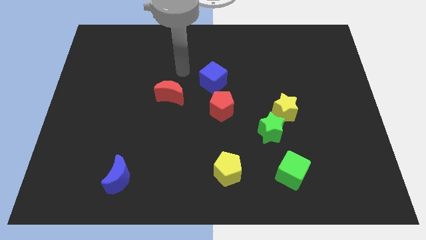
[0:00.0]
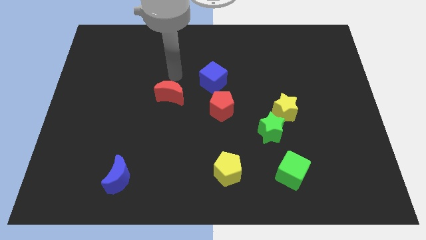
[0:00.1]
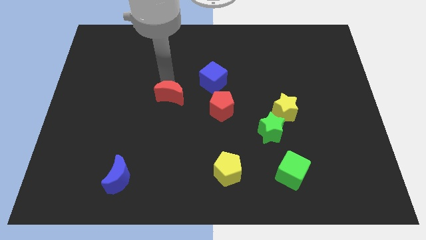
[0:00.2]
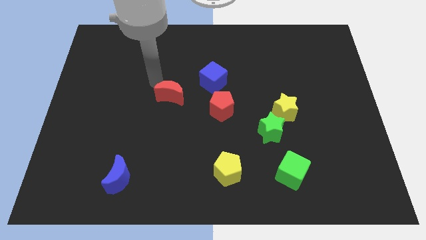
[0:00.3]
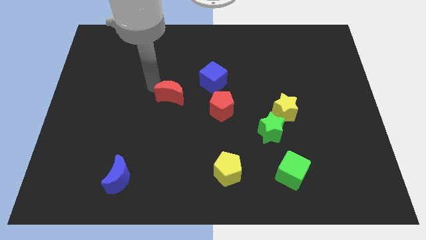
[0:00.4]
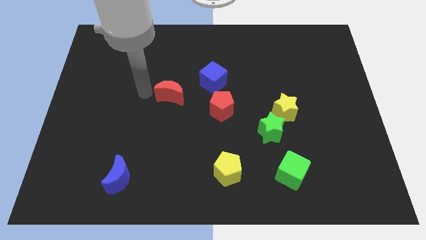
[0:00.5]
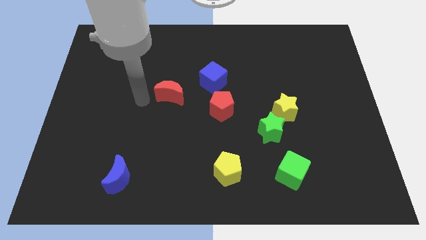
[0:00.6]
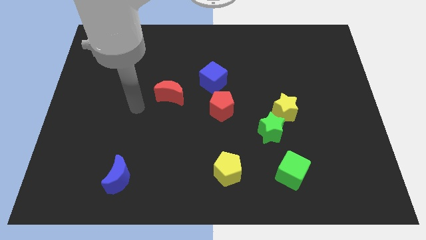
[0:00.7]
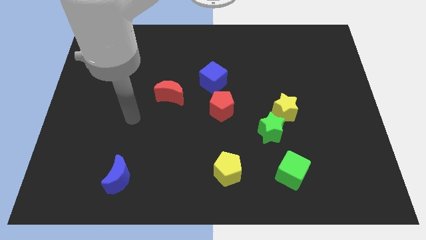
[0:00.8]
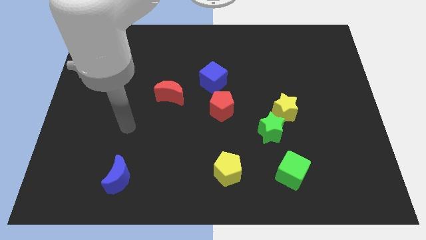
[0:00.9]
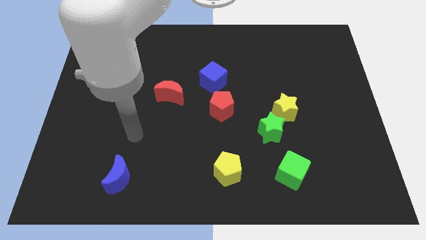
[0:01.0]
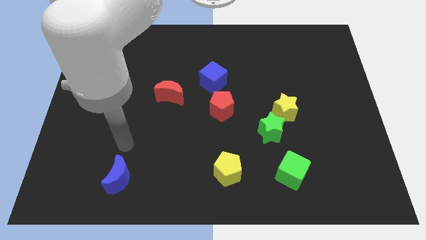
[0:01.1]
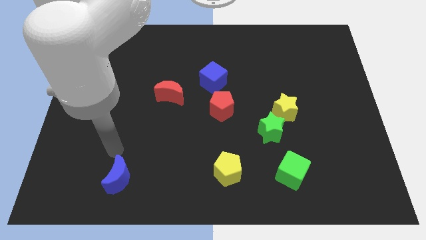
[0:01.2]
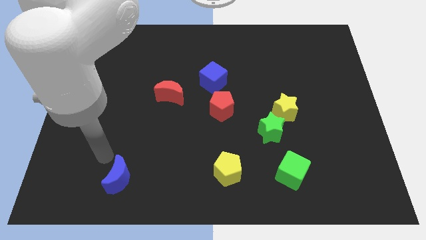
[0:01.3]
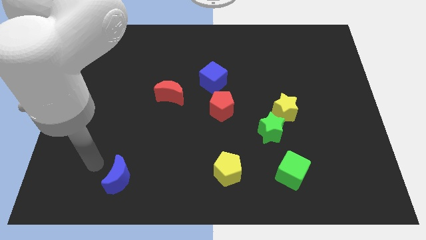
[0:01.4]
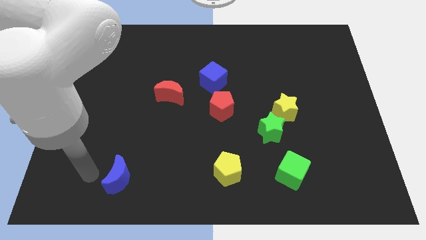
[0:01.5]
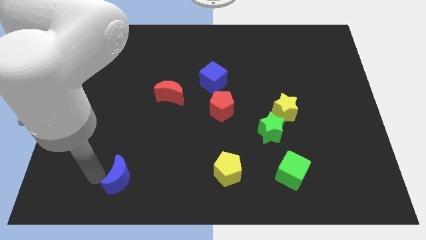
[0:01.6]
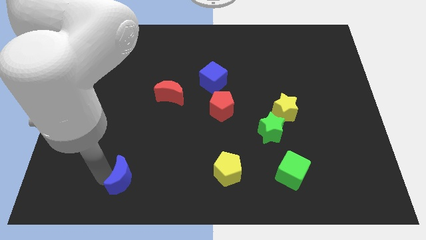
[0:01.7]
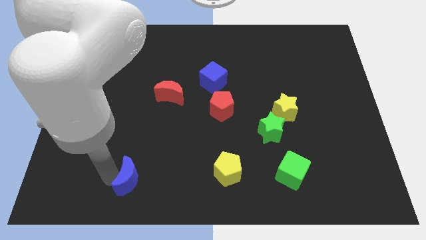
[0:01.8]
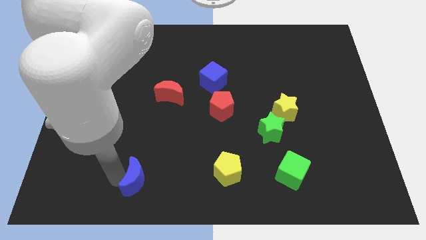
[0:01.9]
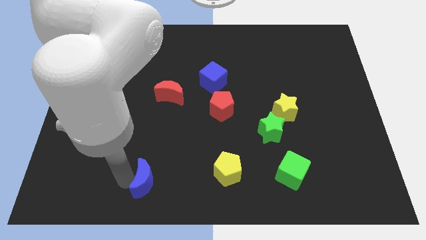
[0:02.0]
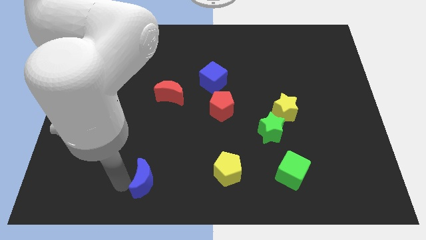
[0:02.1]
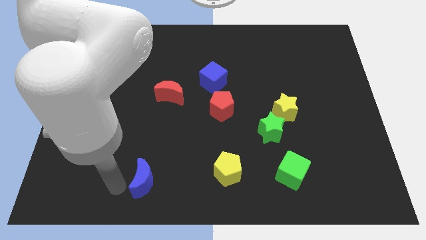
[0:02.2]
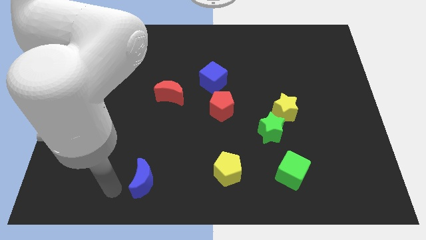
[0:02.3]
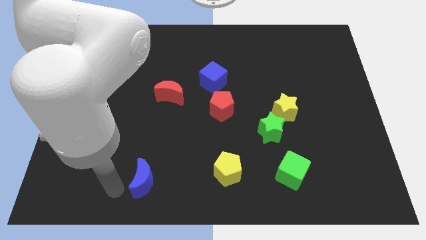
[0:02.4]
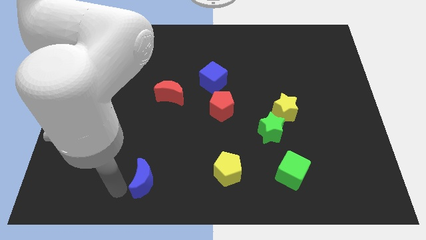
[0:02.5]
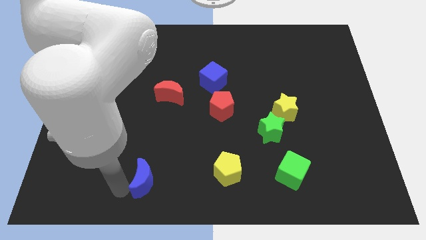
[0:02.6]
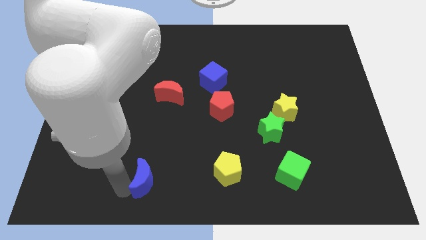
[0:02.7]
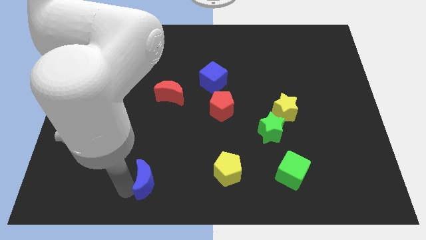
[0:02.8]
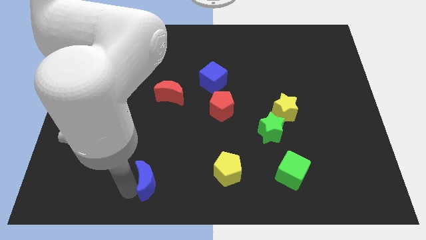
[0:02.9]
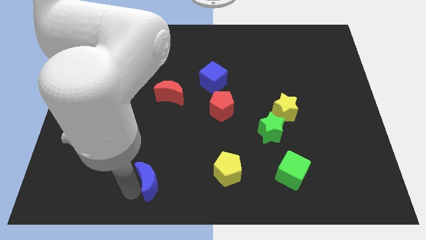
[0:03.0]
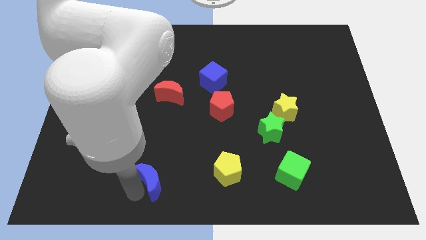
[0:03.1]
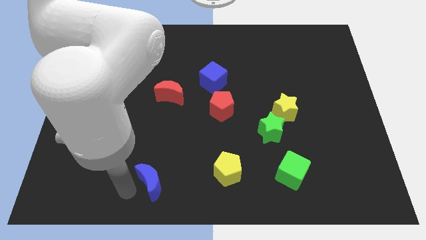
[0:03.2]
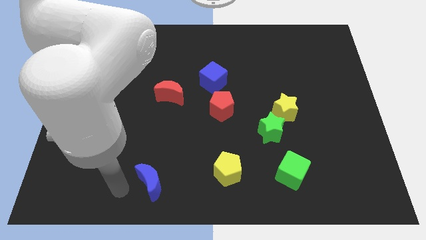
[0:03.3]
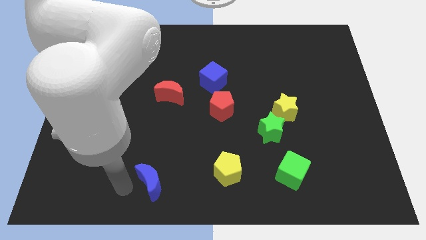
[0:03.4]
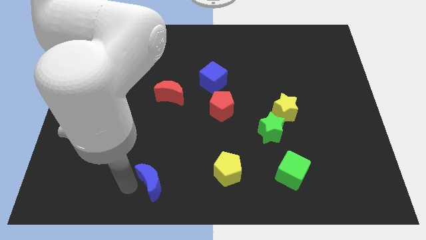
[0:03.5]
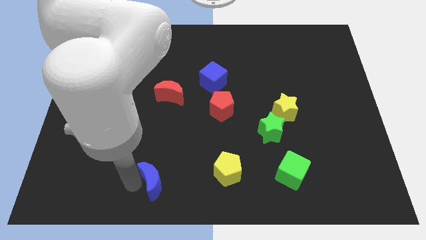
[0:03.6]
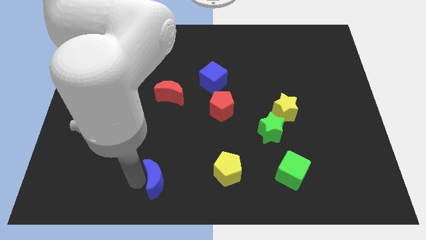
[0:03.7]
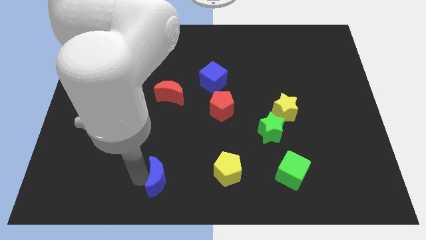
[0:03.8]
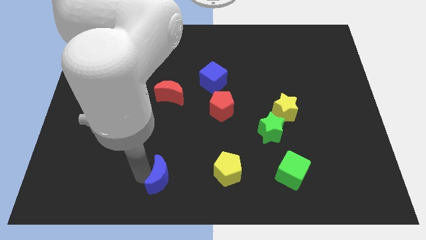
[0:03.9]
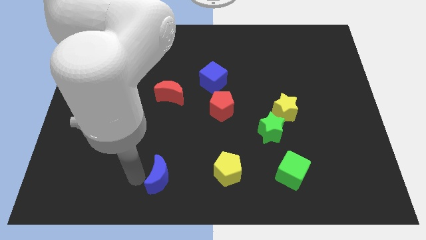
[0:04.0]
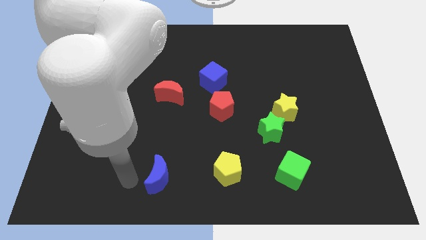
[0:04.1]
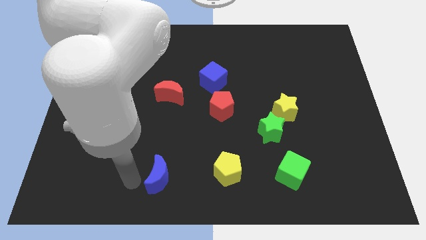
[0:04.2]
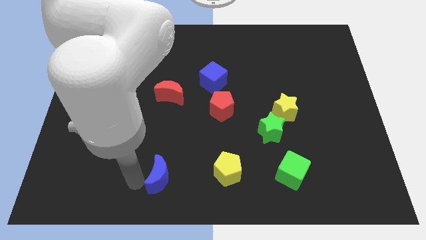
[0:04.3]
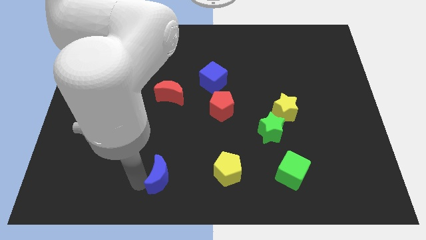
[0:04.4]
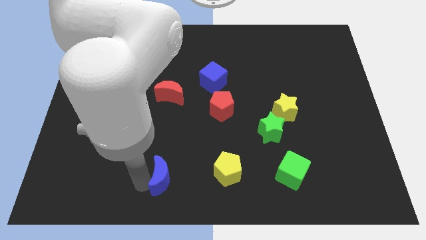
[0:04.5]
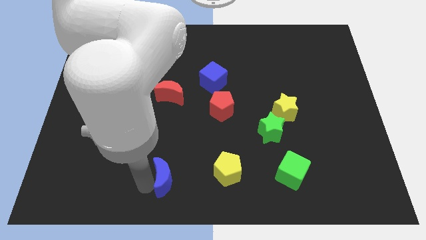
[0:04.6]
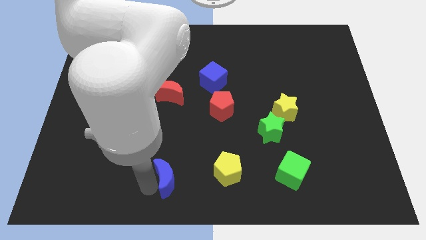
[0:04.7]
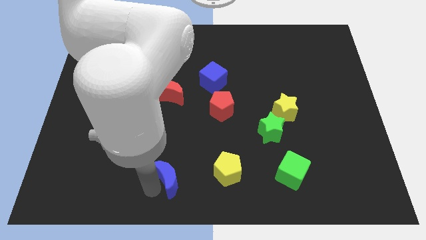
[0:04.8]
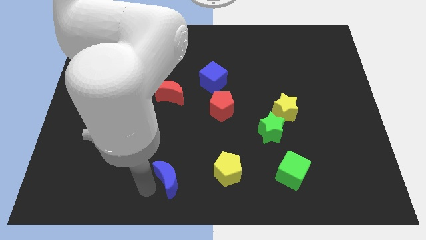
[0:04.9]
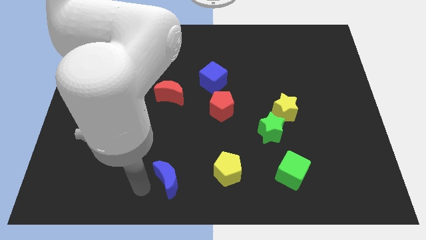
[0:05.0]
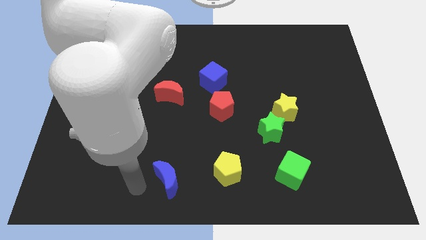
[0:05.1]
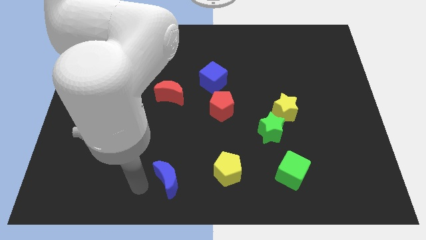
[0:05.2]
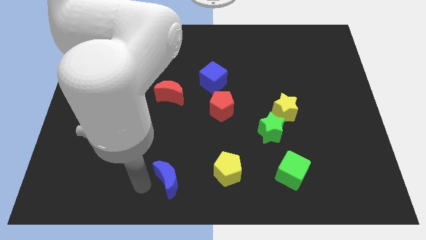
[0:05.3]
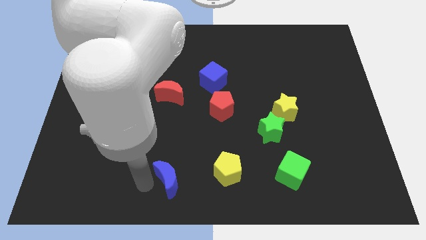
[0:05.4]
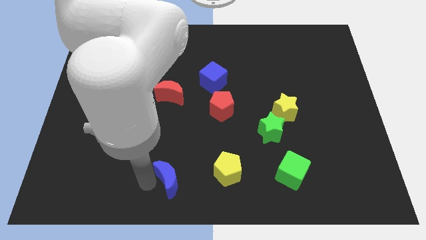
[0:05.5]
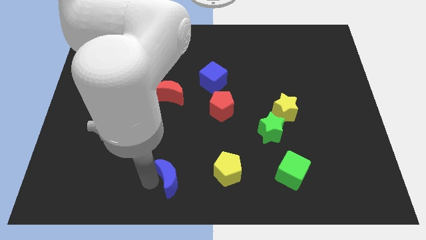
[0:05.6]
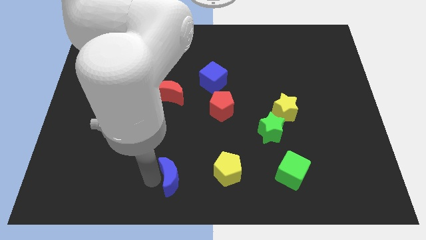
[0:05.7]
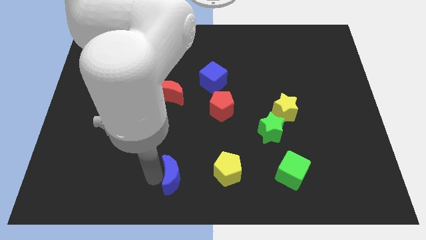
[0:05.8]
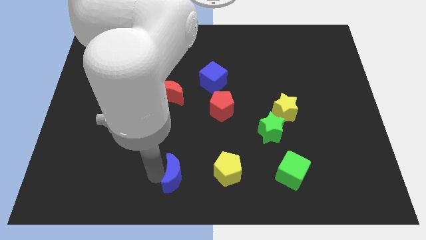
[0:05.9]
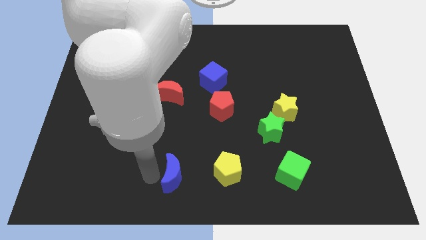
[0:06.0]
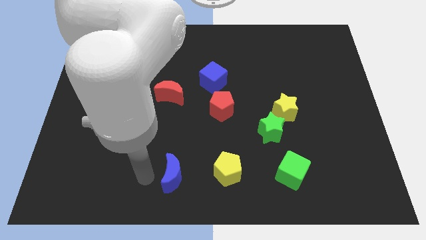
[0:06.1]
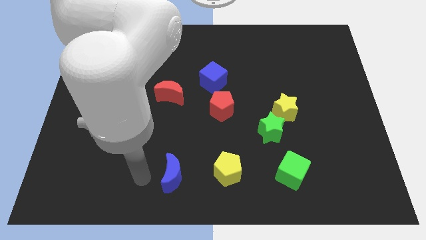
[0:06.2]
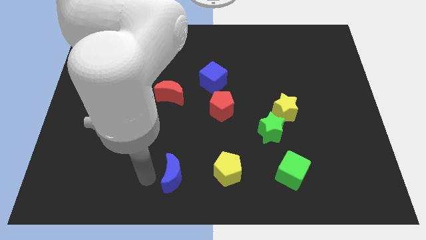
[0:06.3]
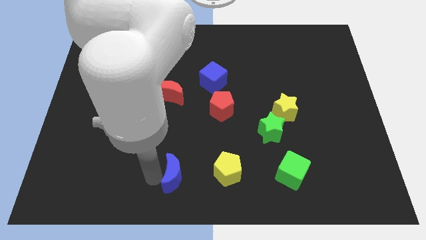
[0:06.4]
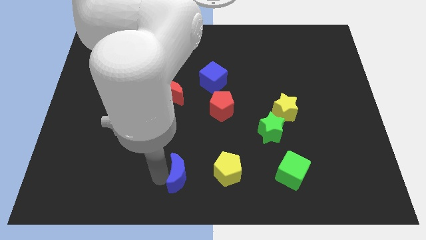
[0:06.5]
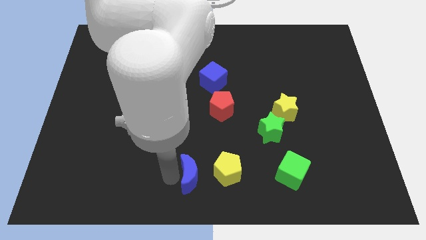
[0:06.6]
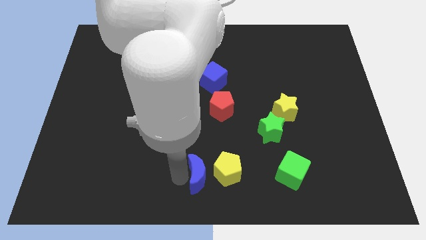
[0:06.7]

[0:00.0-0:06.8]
move the blue moon close to the yellow pentagon

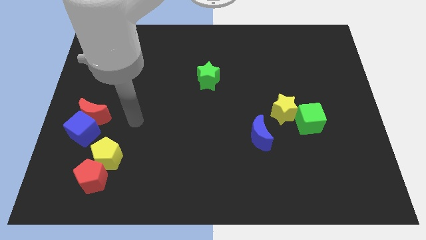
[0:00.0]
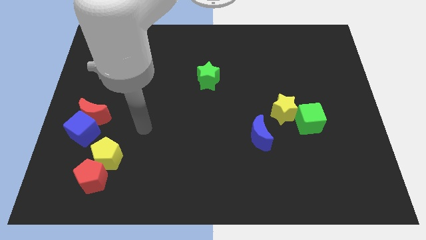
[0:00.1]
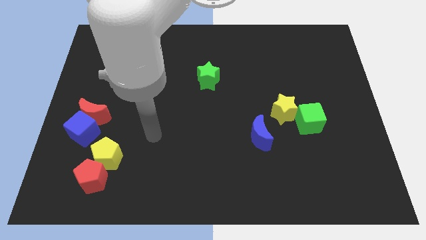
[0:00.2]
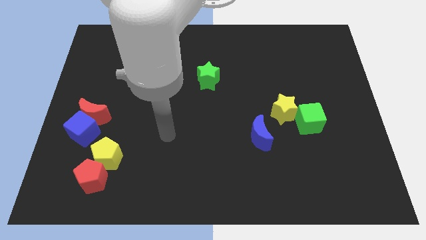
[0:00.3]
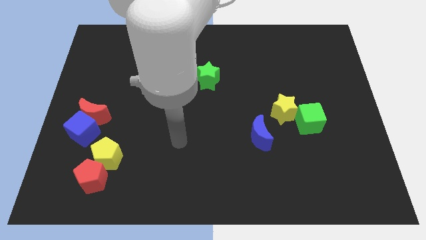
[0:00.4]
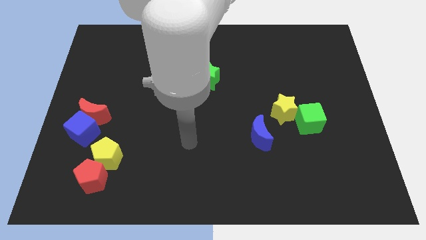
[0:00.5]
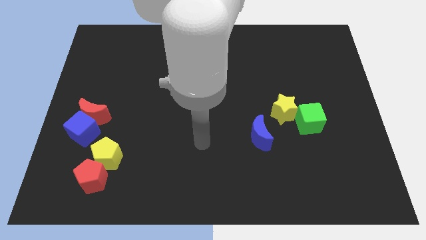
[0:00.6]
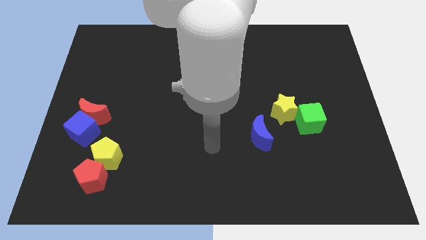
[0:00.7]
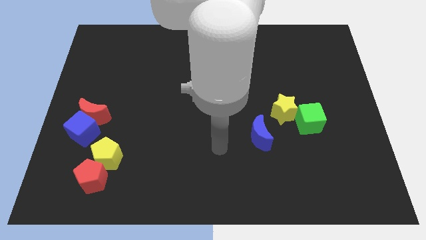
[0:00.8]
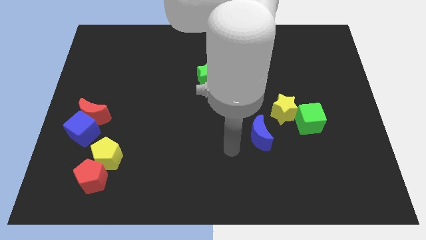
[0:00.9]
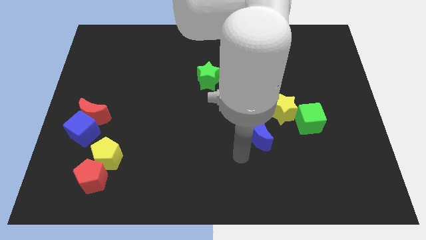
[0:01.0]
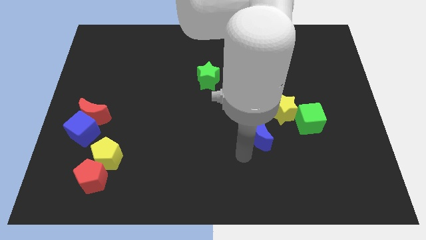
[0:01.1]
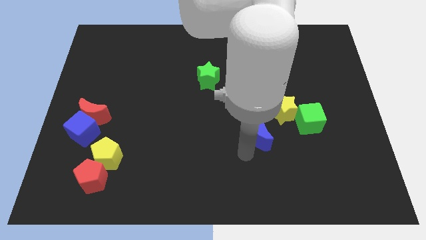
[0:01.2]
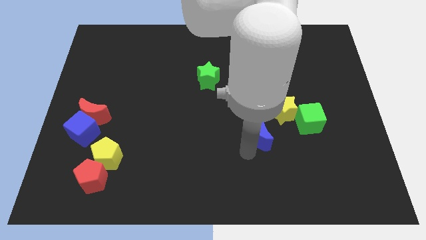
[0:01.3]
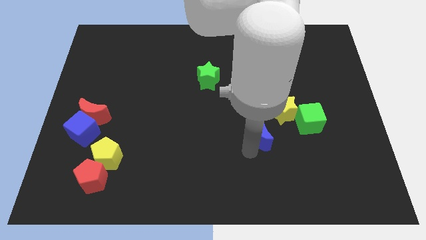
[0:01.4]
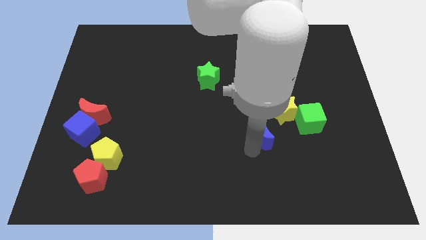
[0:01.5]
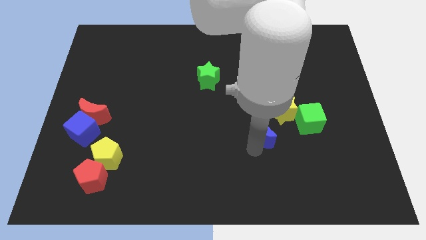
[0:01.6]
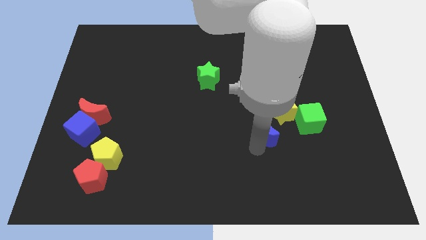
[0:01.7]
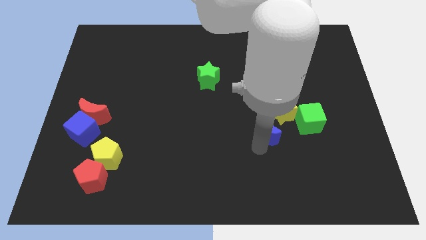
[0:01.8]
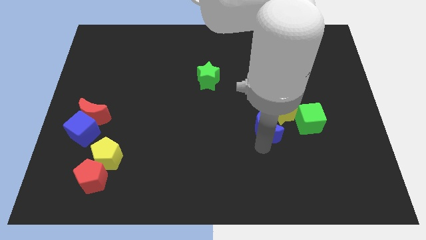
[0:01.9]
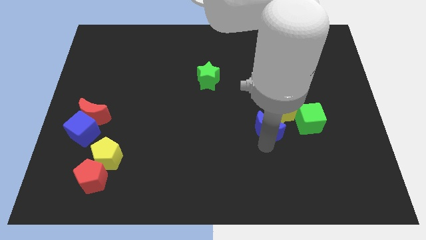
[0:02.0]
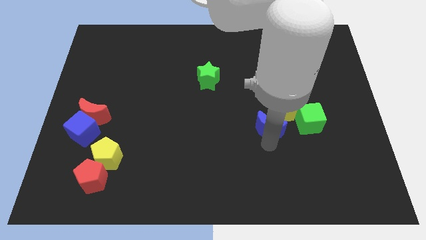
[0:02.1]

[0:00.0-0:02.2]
put the blue moon towards the yellow star
